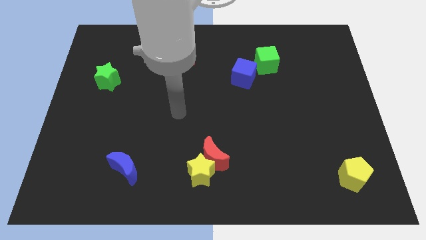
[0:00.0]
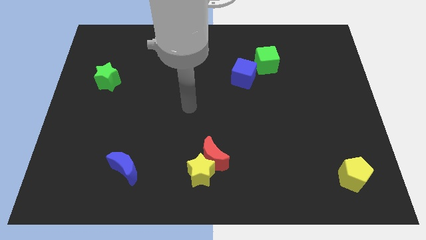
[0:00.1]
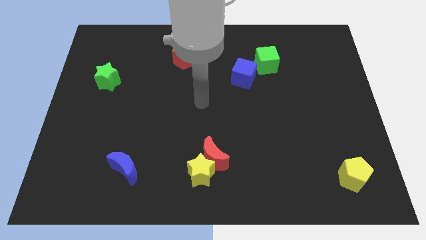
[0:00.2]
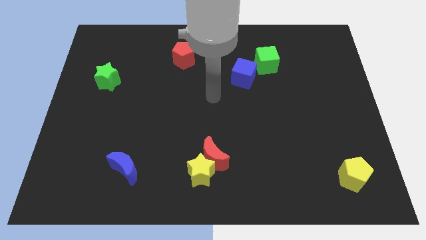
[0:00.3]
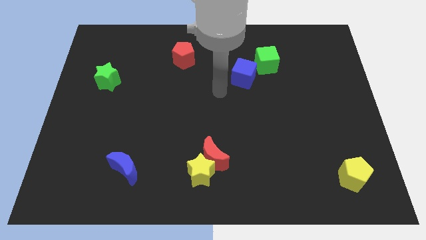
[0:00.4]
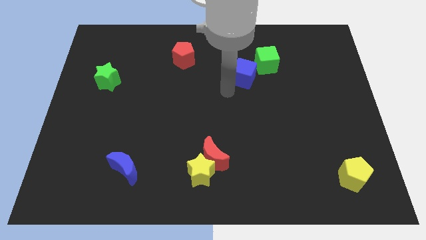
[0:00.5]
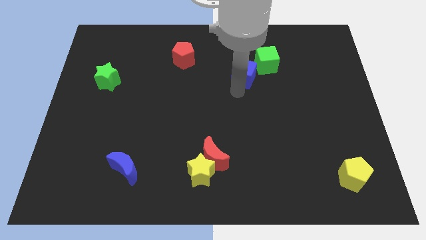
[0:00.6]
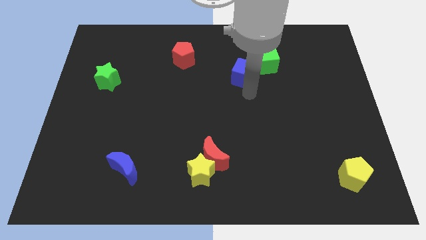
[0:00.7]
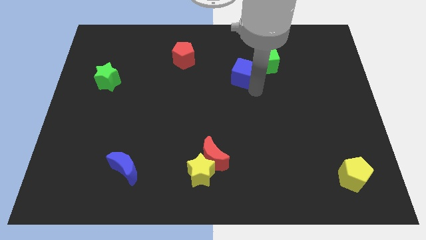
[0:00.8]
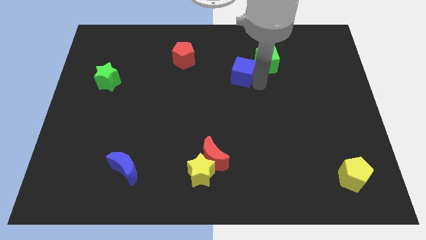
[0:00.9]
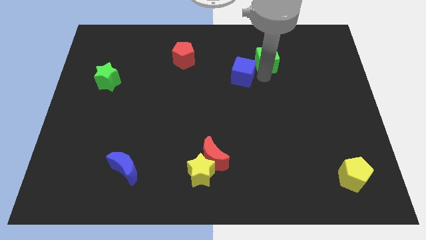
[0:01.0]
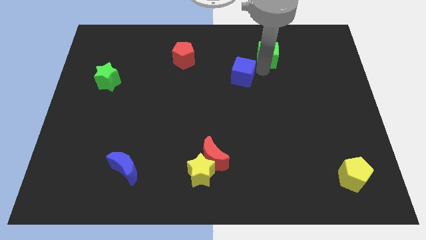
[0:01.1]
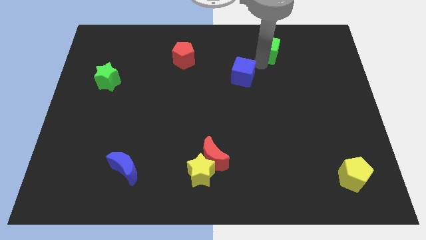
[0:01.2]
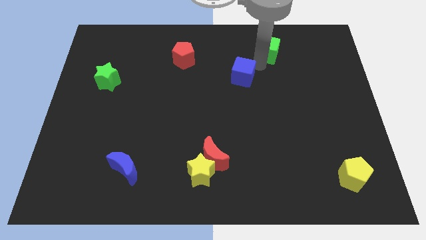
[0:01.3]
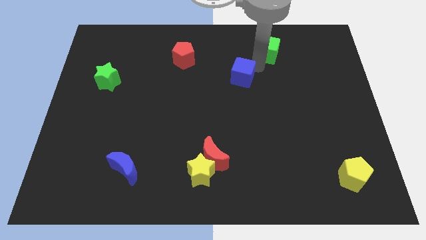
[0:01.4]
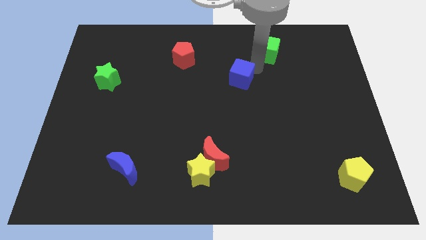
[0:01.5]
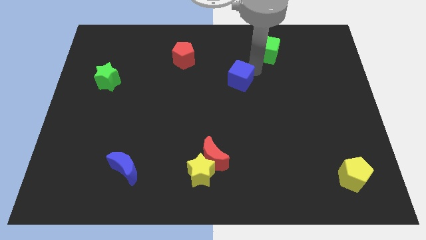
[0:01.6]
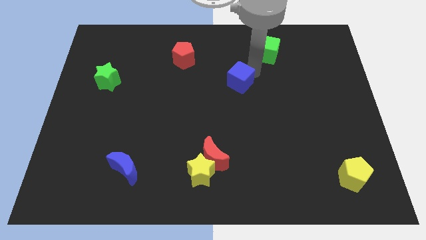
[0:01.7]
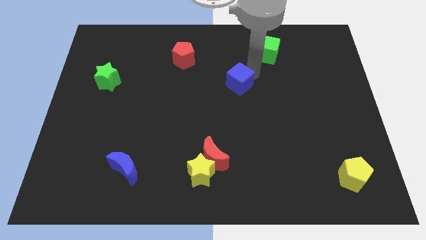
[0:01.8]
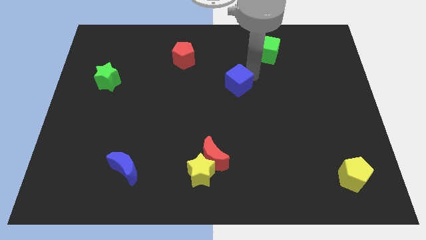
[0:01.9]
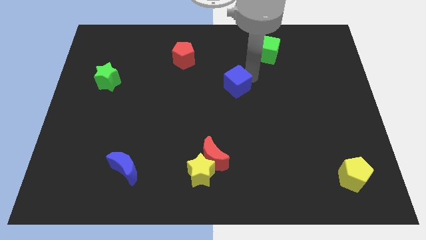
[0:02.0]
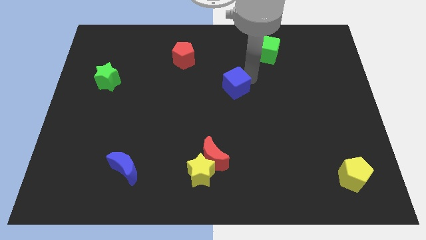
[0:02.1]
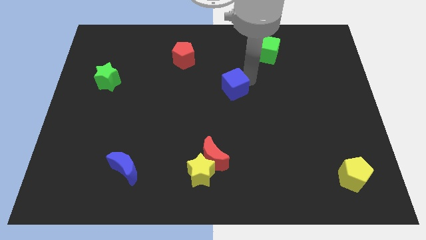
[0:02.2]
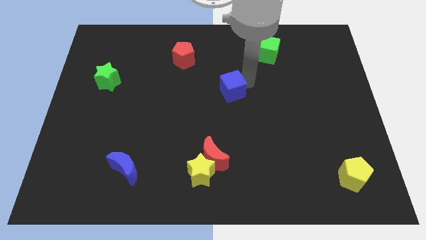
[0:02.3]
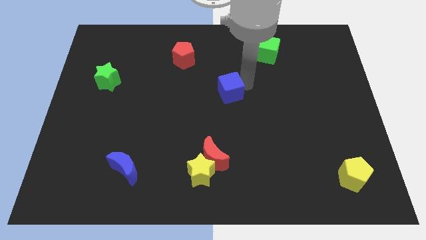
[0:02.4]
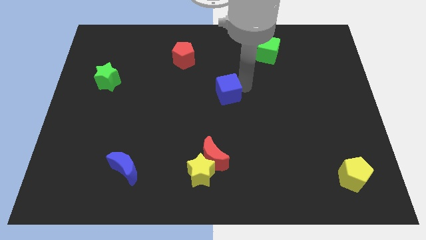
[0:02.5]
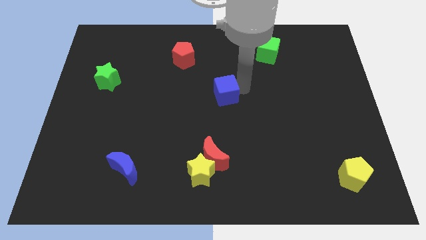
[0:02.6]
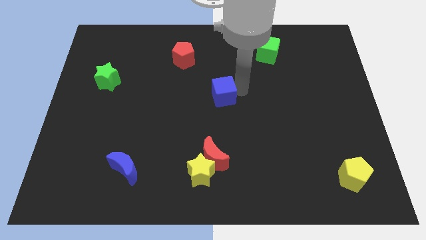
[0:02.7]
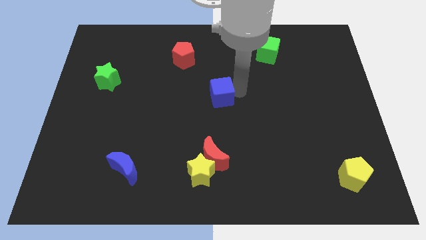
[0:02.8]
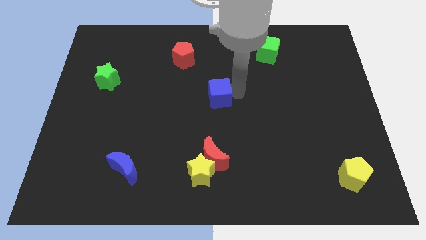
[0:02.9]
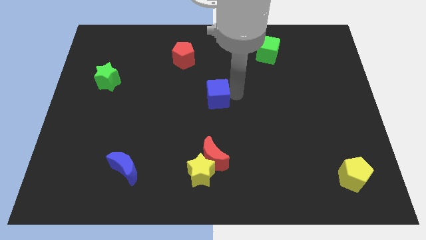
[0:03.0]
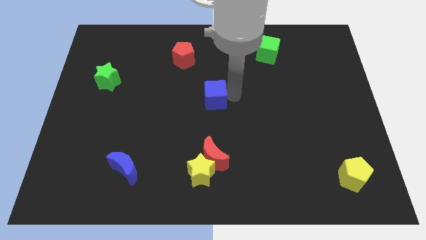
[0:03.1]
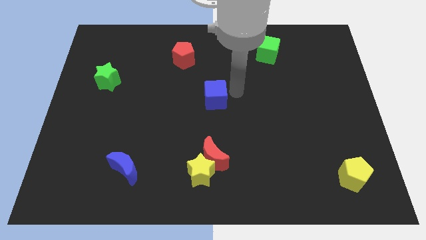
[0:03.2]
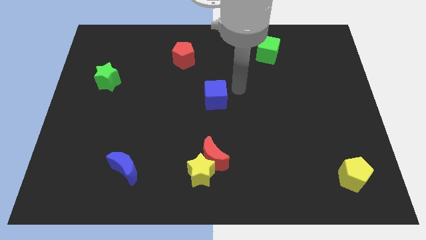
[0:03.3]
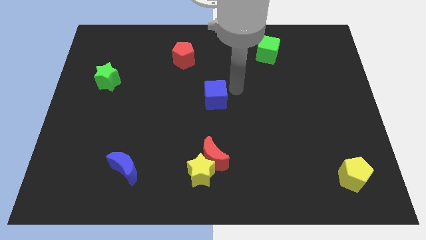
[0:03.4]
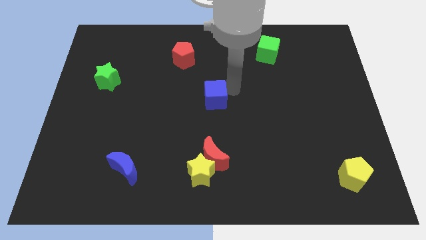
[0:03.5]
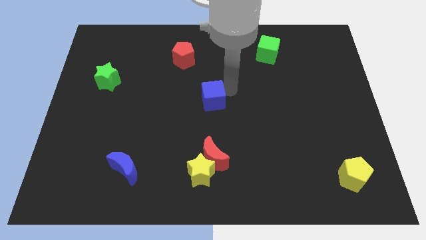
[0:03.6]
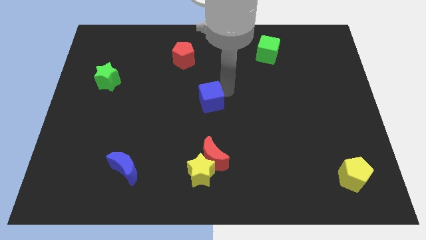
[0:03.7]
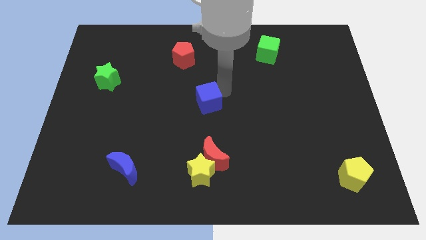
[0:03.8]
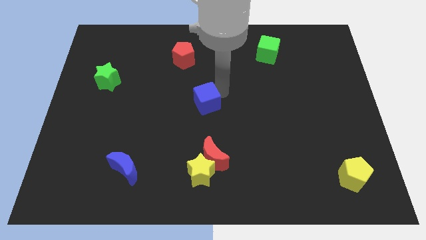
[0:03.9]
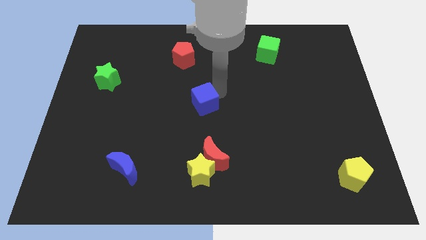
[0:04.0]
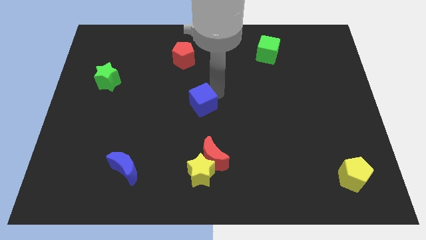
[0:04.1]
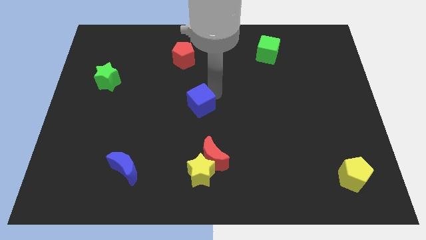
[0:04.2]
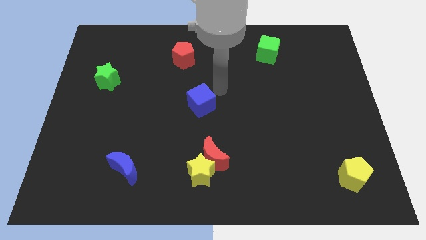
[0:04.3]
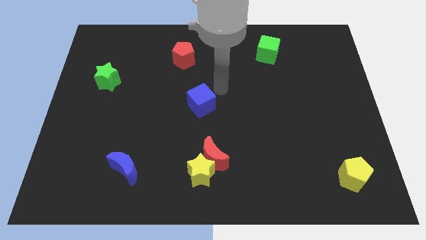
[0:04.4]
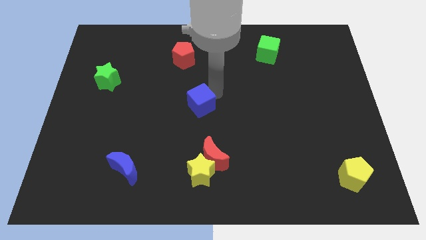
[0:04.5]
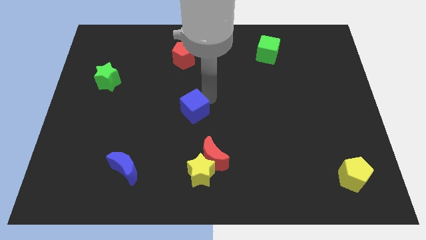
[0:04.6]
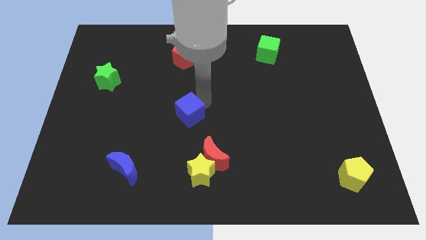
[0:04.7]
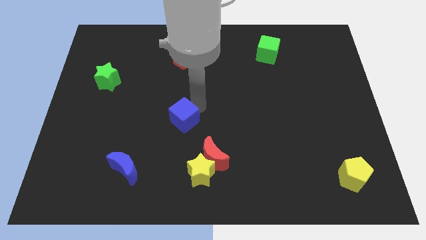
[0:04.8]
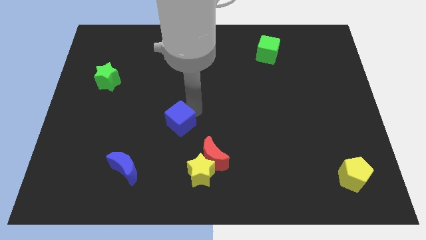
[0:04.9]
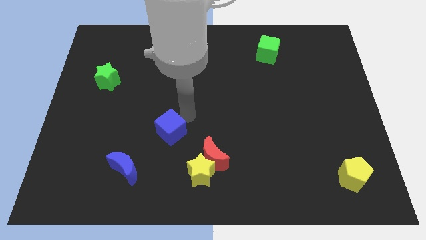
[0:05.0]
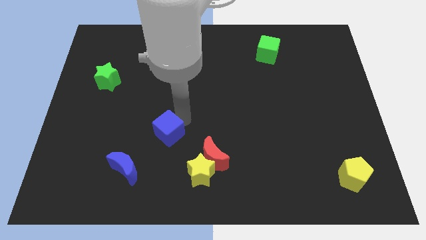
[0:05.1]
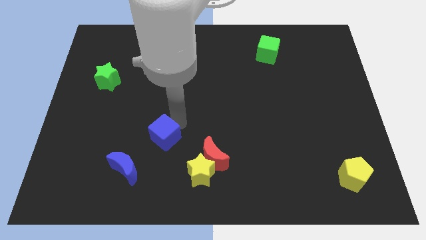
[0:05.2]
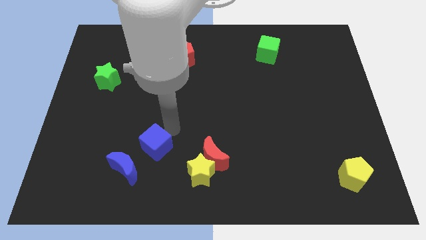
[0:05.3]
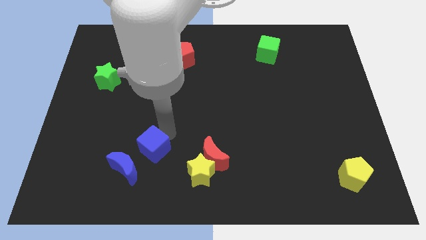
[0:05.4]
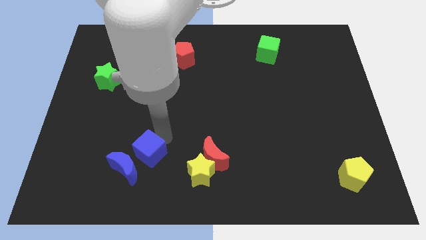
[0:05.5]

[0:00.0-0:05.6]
push the blue cube to the blue moon

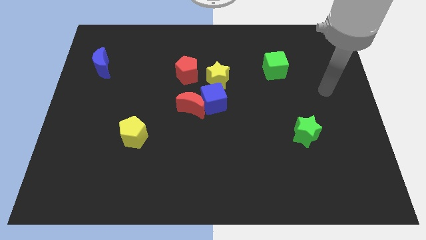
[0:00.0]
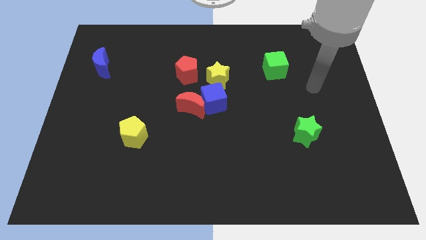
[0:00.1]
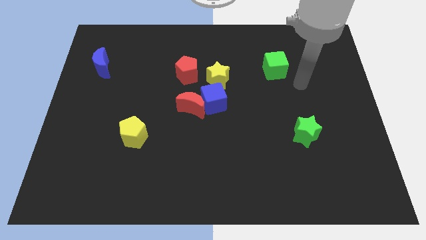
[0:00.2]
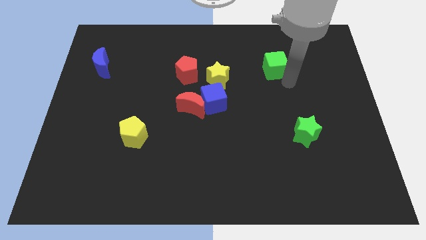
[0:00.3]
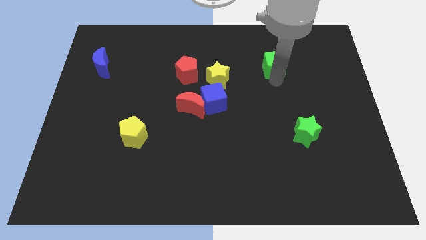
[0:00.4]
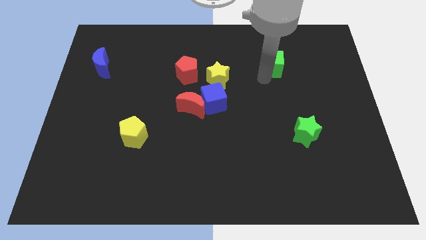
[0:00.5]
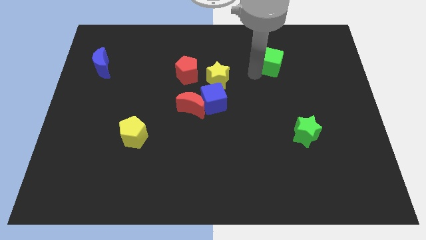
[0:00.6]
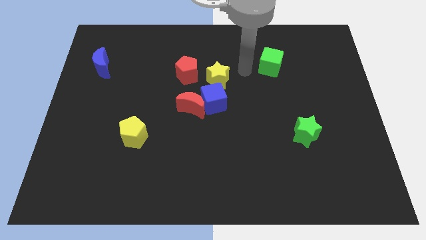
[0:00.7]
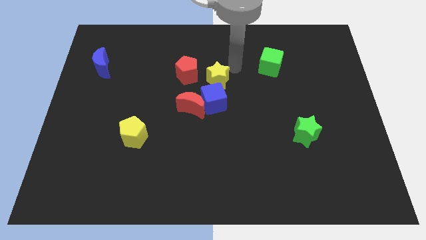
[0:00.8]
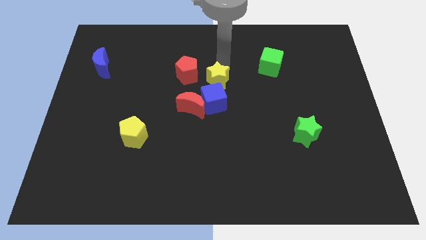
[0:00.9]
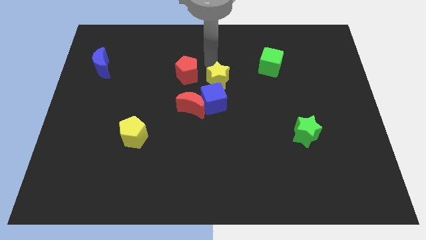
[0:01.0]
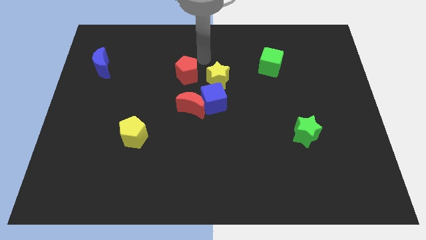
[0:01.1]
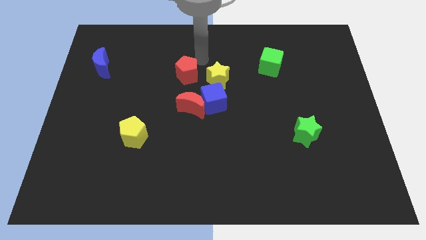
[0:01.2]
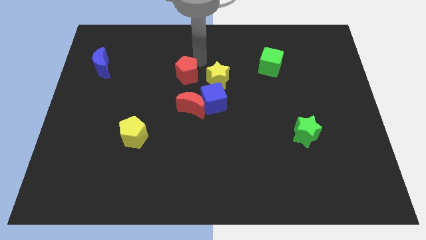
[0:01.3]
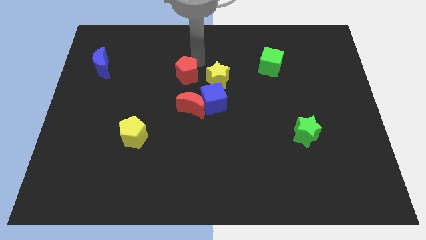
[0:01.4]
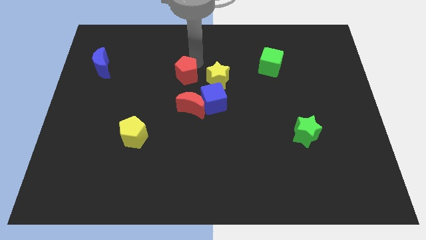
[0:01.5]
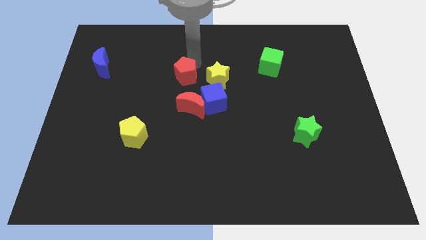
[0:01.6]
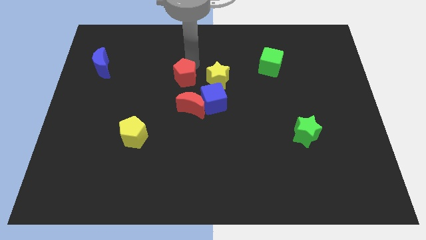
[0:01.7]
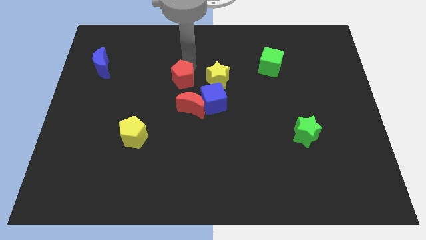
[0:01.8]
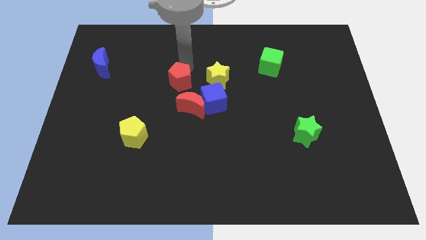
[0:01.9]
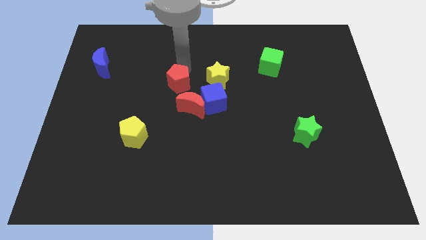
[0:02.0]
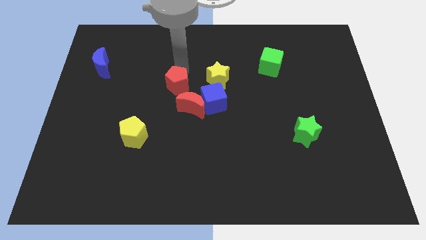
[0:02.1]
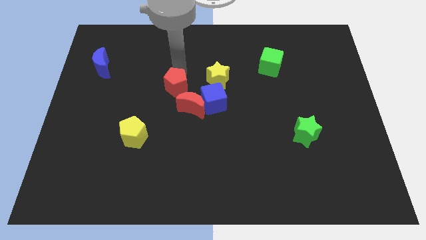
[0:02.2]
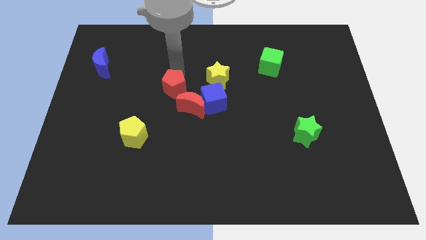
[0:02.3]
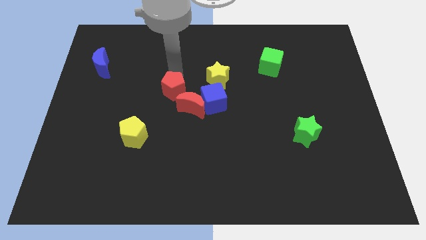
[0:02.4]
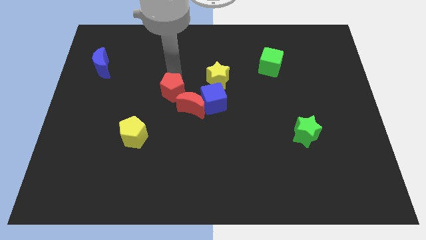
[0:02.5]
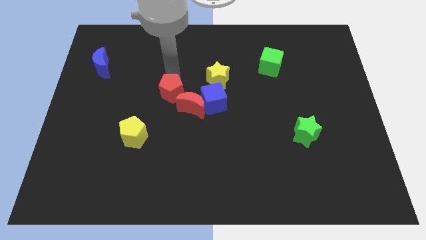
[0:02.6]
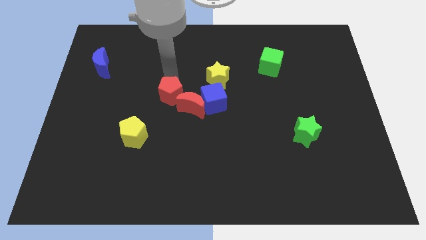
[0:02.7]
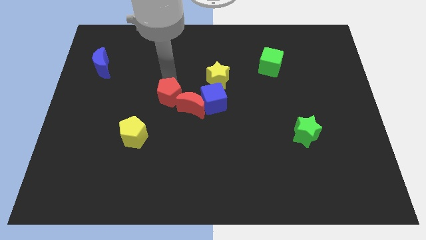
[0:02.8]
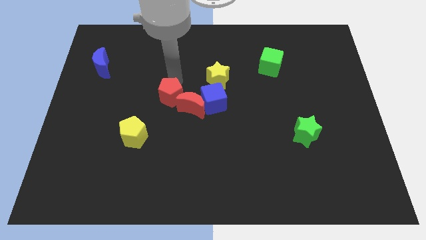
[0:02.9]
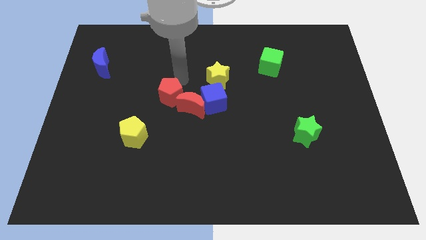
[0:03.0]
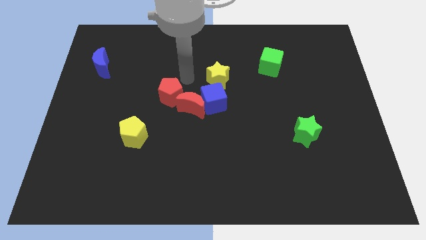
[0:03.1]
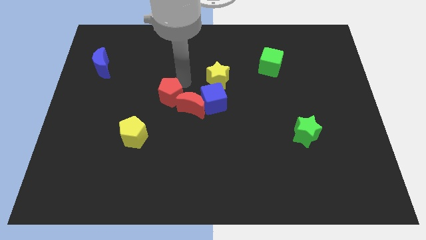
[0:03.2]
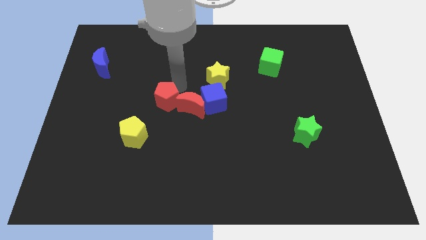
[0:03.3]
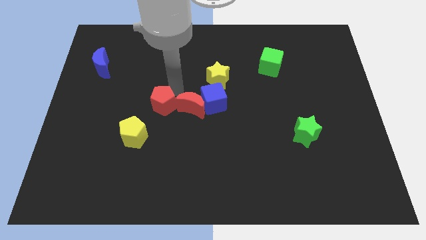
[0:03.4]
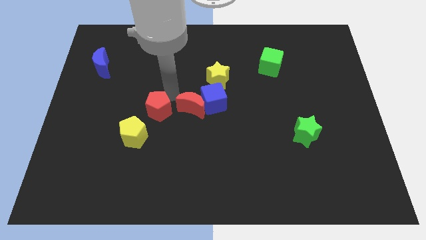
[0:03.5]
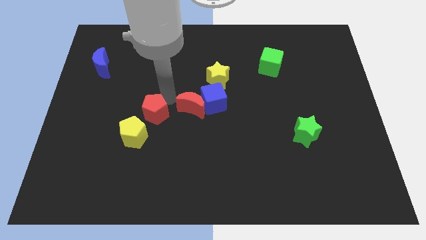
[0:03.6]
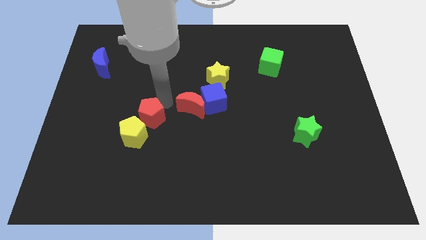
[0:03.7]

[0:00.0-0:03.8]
push the red pentagon towards the yellow pentagon
